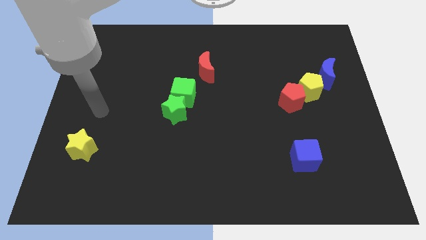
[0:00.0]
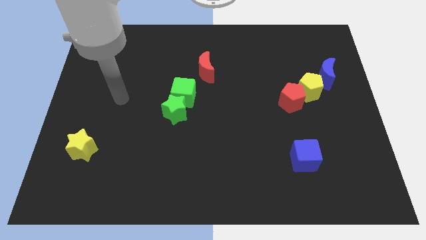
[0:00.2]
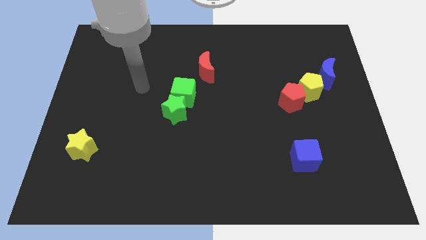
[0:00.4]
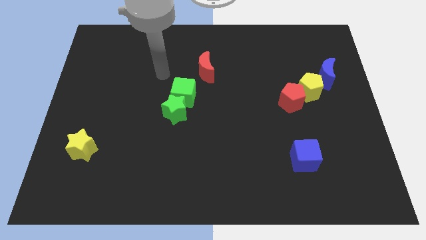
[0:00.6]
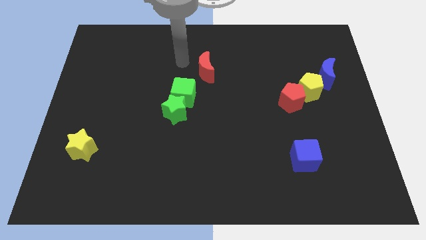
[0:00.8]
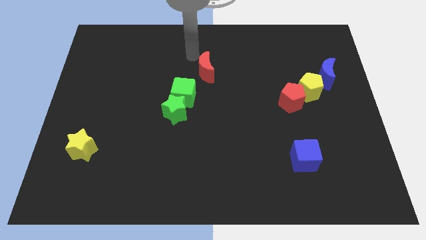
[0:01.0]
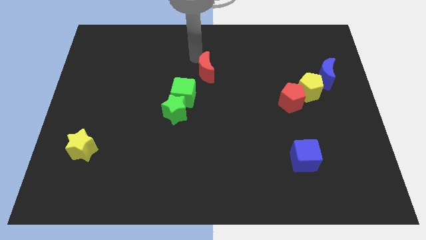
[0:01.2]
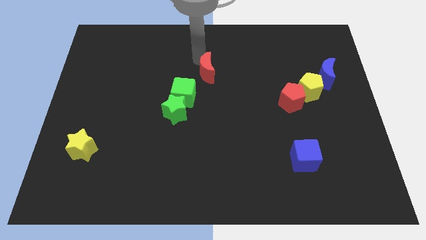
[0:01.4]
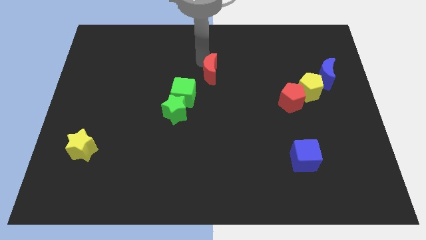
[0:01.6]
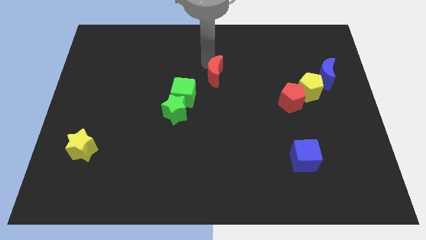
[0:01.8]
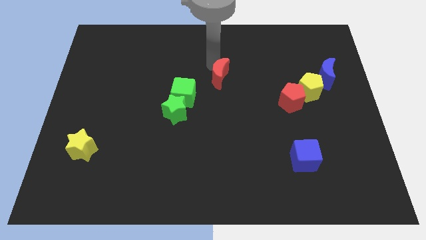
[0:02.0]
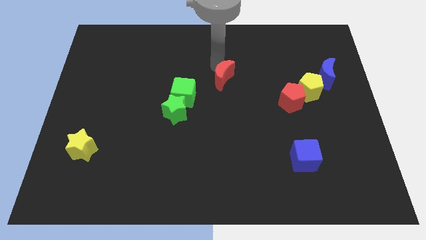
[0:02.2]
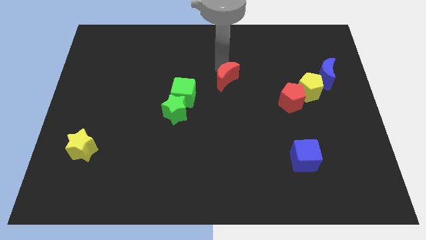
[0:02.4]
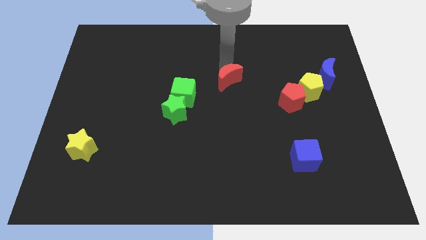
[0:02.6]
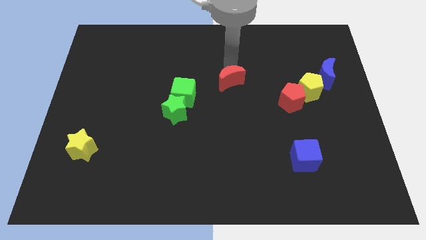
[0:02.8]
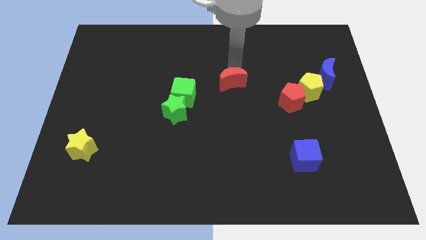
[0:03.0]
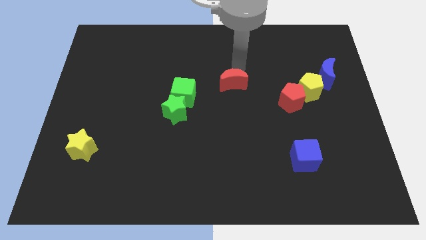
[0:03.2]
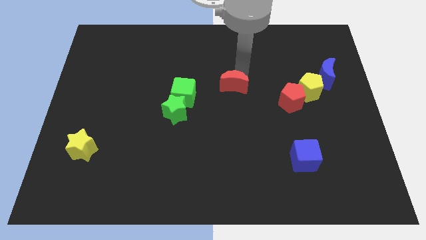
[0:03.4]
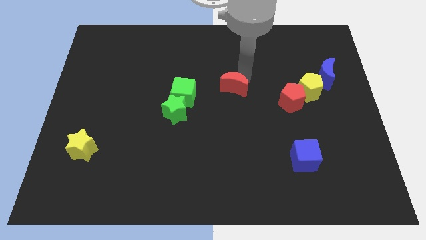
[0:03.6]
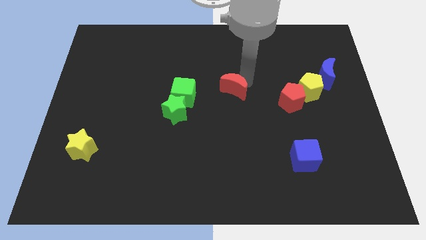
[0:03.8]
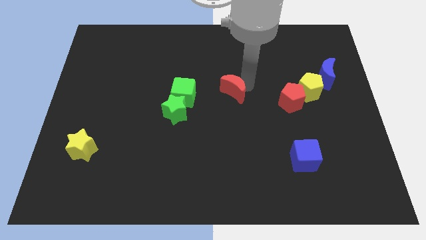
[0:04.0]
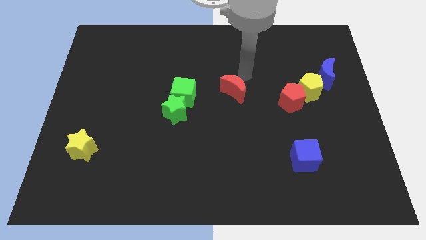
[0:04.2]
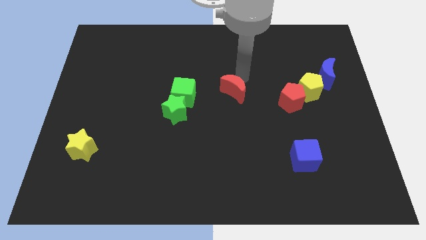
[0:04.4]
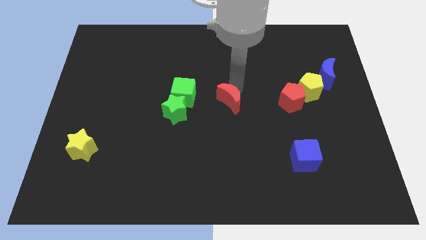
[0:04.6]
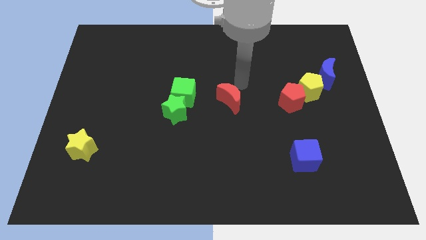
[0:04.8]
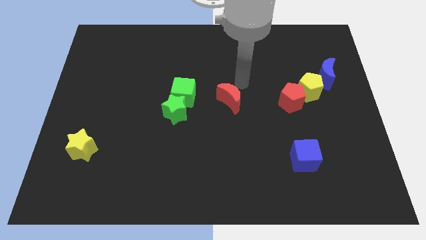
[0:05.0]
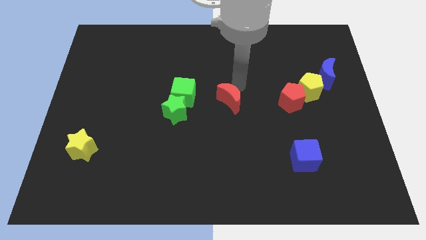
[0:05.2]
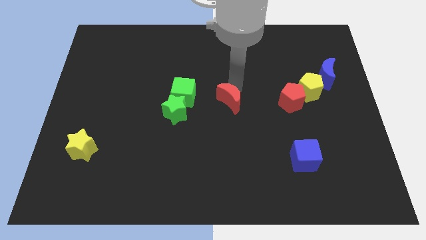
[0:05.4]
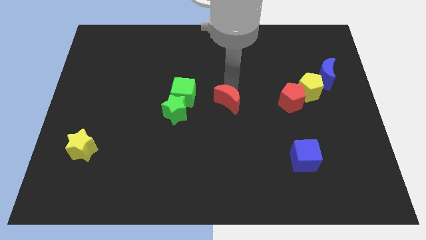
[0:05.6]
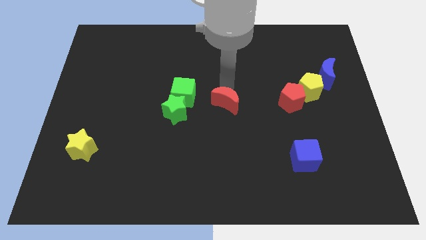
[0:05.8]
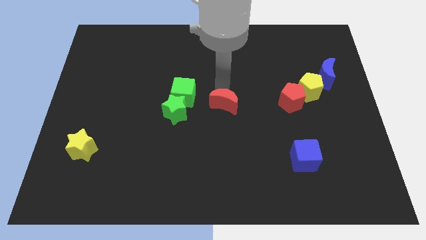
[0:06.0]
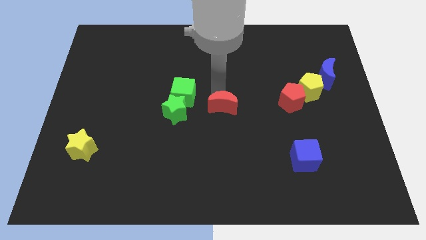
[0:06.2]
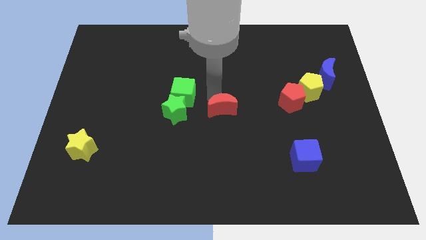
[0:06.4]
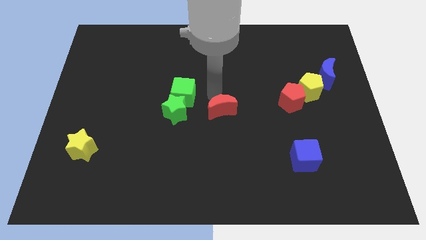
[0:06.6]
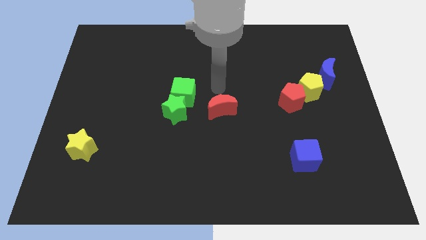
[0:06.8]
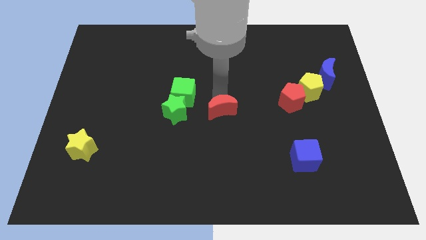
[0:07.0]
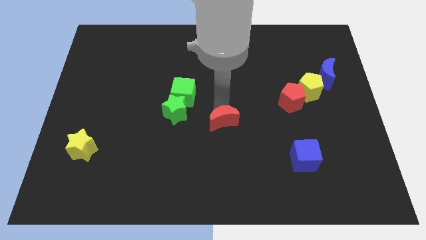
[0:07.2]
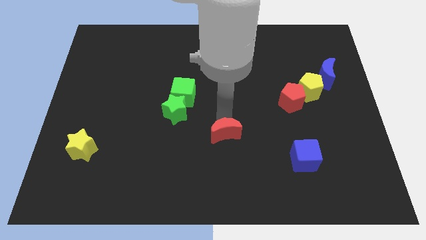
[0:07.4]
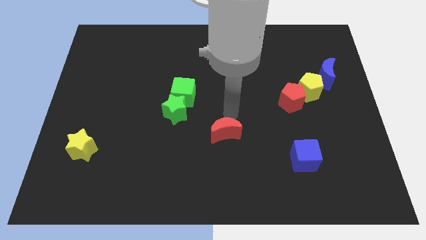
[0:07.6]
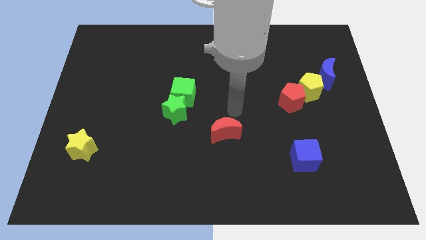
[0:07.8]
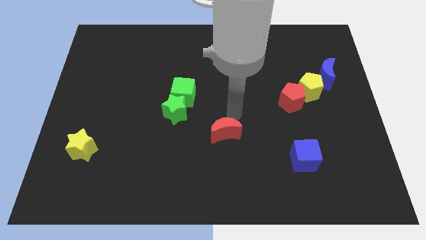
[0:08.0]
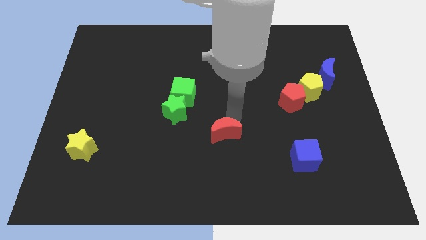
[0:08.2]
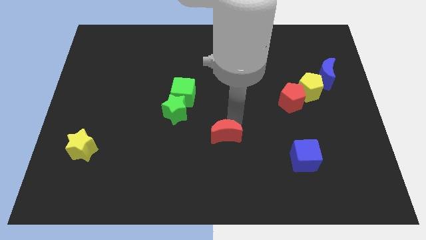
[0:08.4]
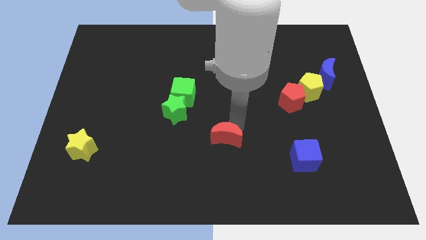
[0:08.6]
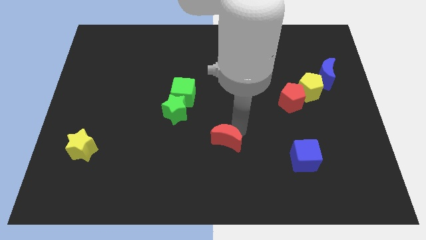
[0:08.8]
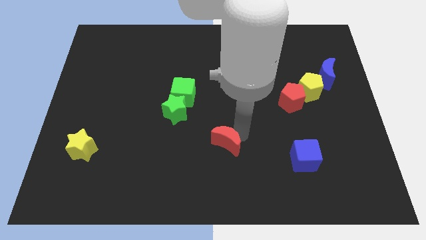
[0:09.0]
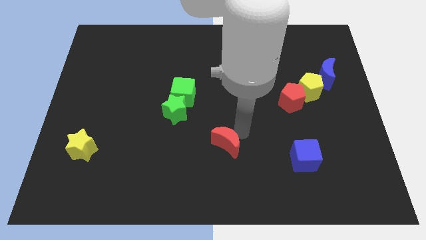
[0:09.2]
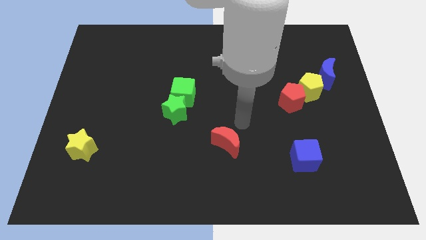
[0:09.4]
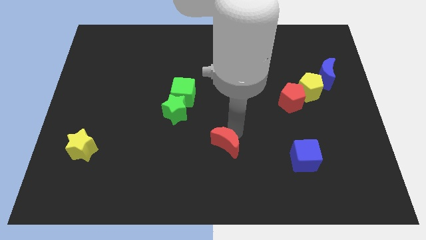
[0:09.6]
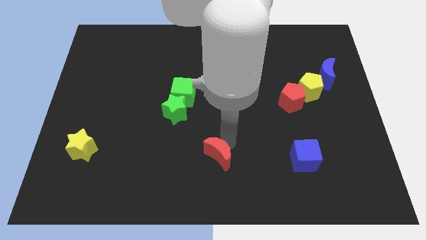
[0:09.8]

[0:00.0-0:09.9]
push the red moon to the bottom

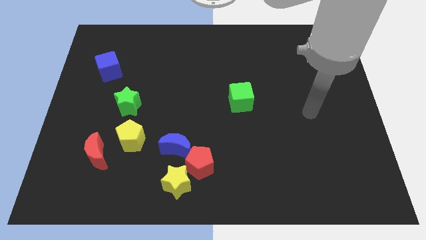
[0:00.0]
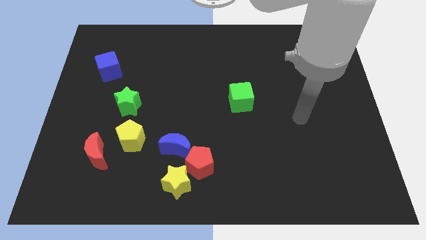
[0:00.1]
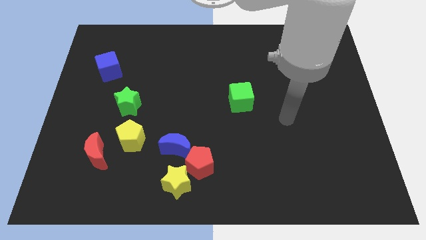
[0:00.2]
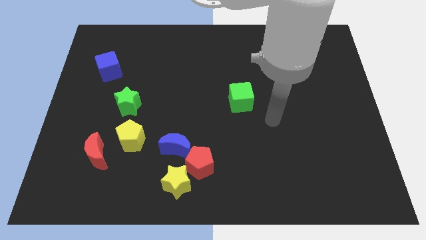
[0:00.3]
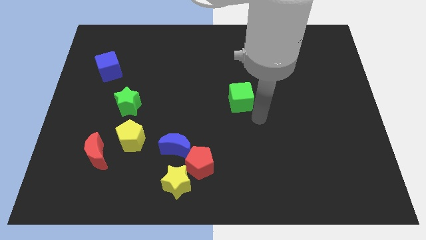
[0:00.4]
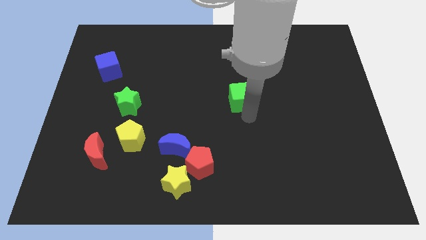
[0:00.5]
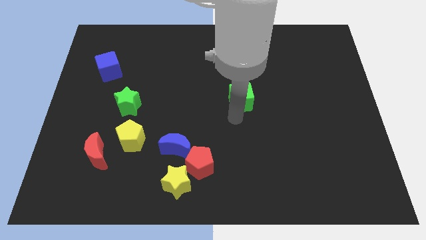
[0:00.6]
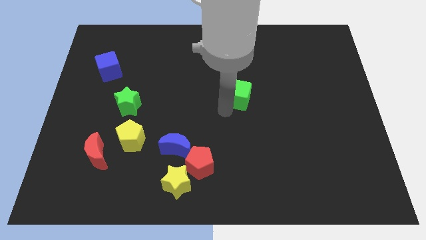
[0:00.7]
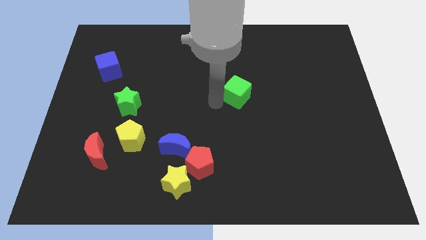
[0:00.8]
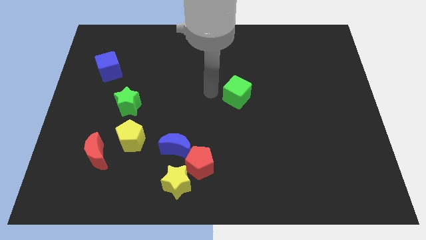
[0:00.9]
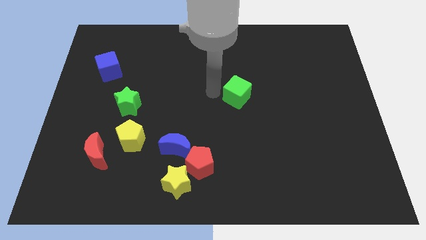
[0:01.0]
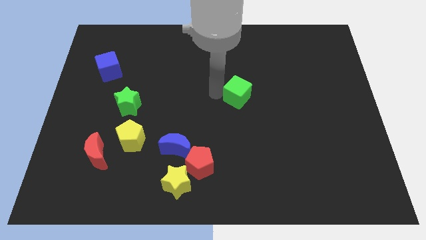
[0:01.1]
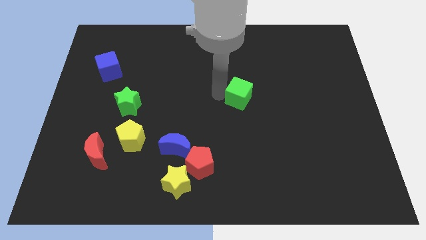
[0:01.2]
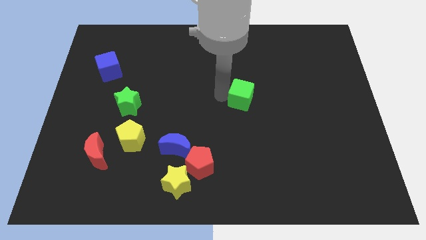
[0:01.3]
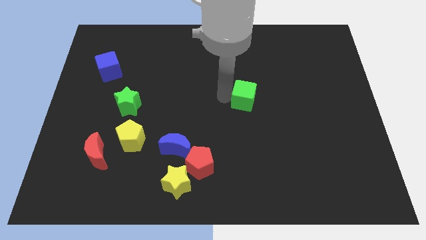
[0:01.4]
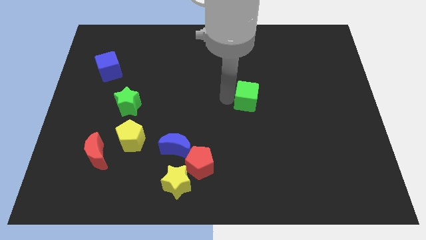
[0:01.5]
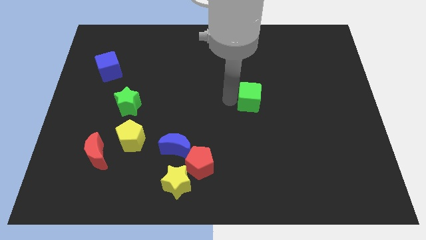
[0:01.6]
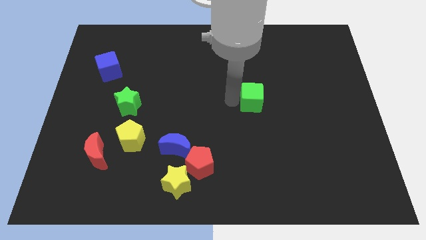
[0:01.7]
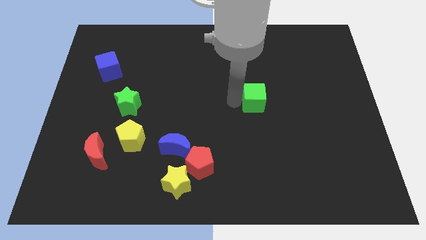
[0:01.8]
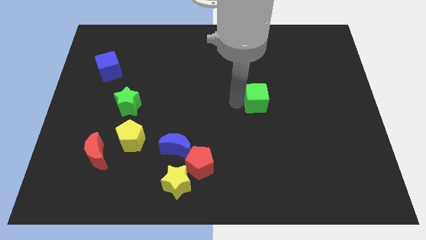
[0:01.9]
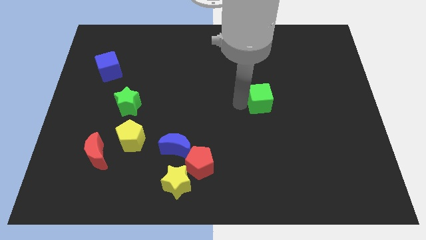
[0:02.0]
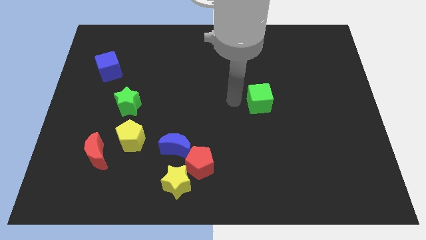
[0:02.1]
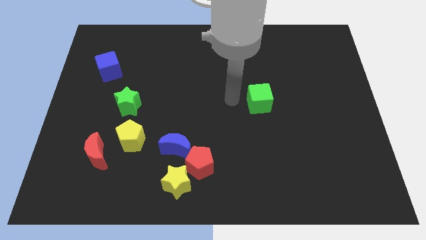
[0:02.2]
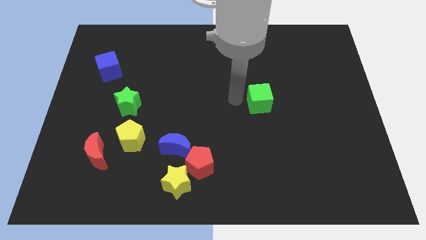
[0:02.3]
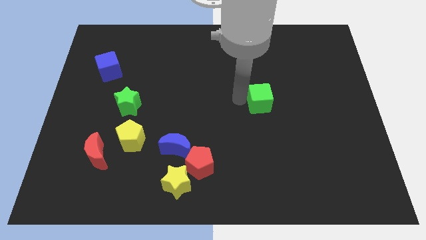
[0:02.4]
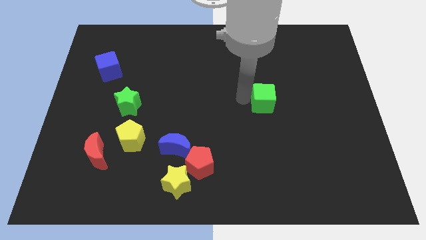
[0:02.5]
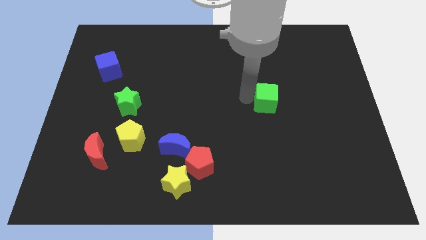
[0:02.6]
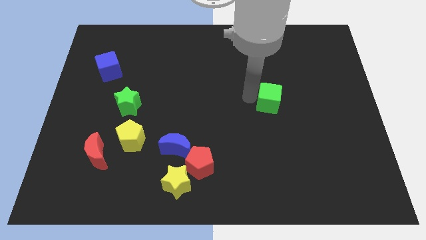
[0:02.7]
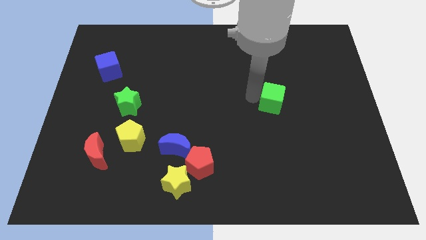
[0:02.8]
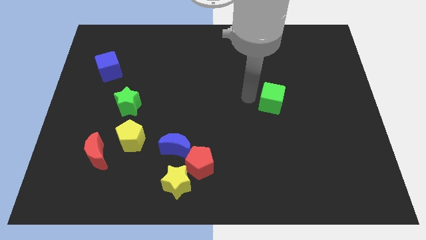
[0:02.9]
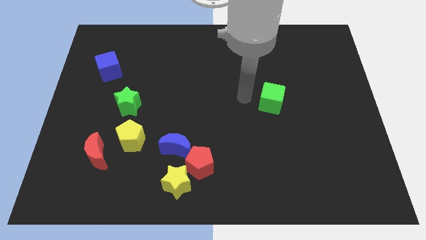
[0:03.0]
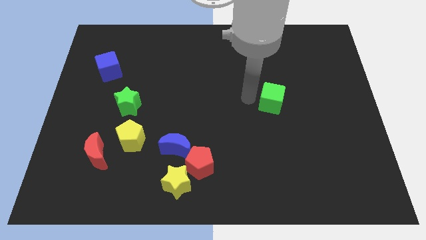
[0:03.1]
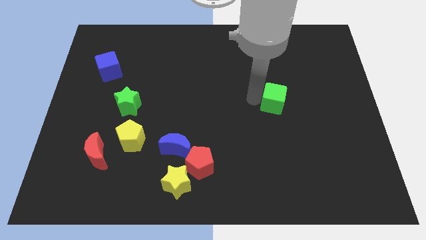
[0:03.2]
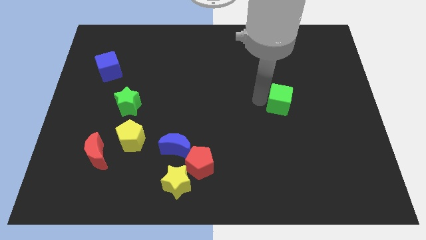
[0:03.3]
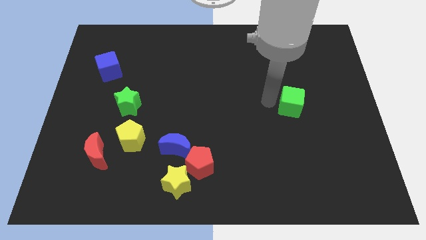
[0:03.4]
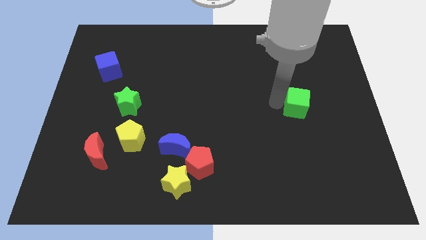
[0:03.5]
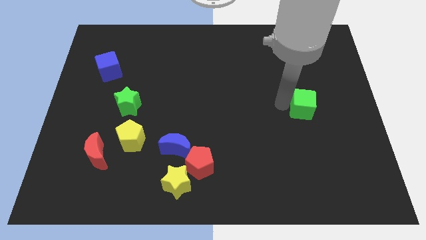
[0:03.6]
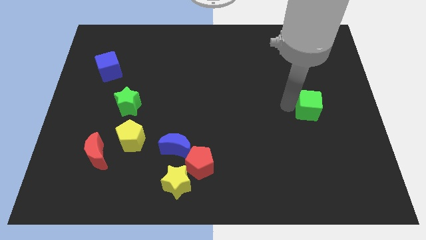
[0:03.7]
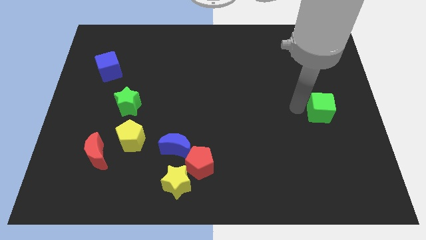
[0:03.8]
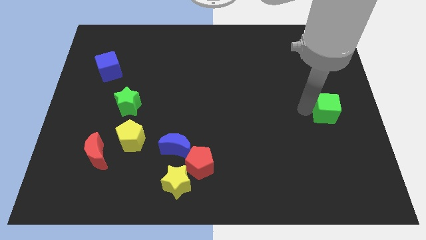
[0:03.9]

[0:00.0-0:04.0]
move the green cube to the right side
